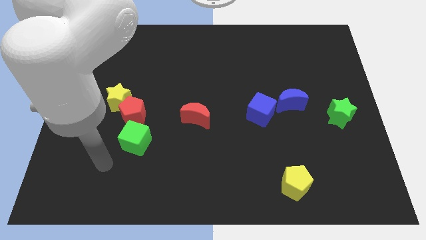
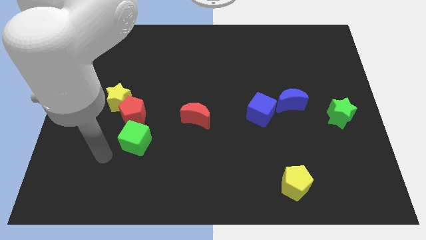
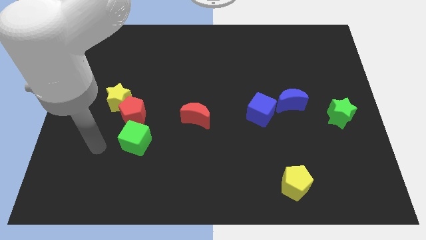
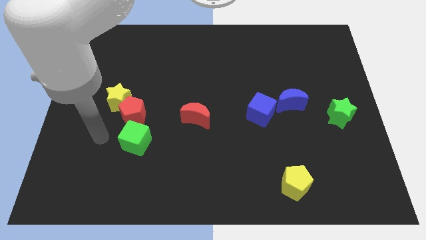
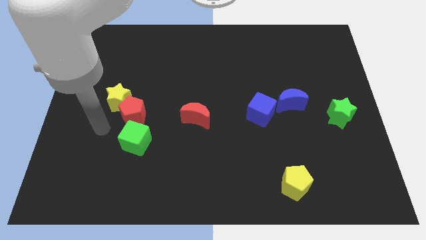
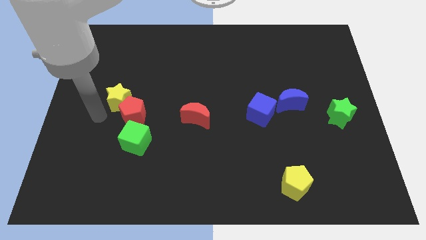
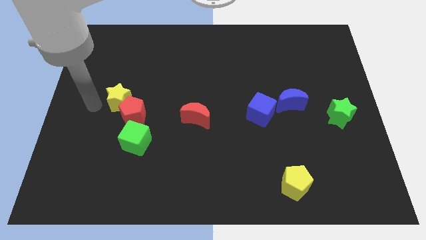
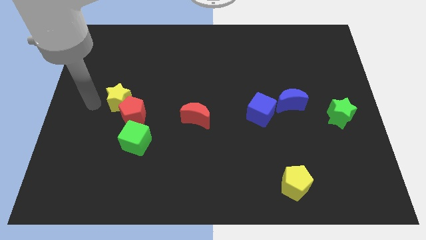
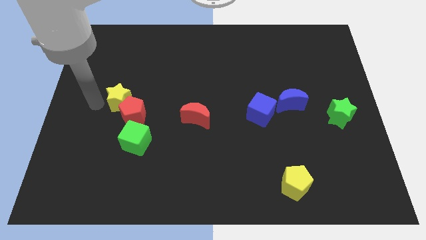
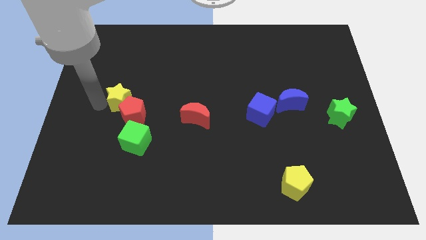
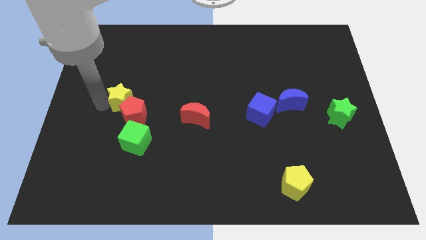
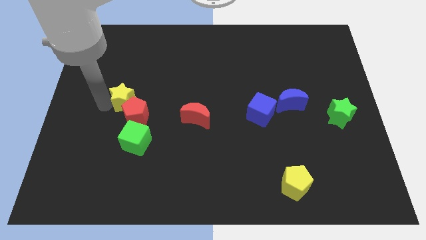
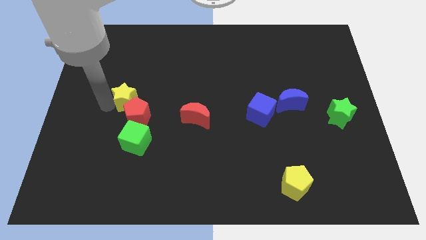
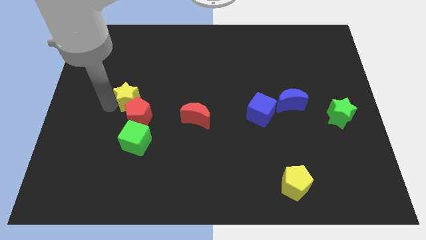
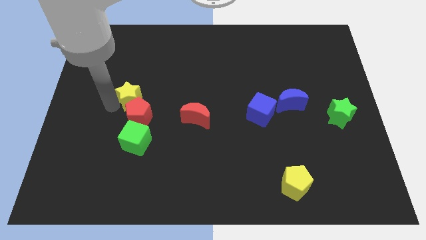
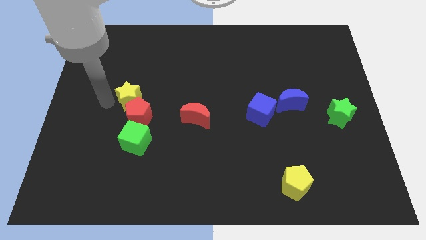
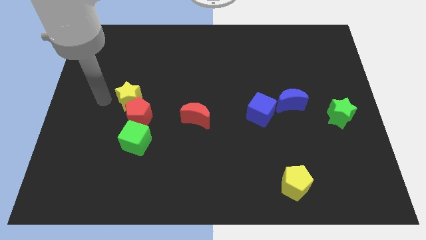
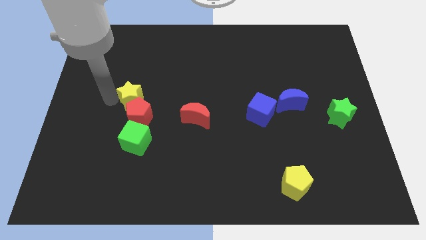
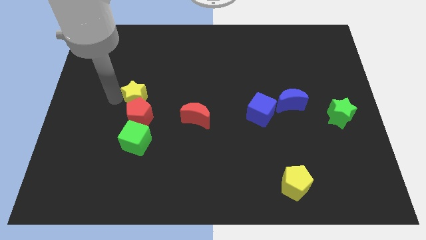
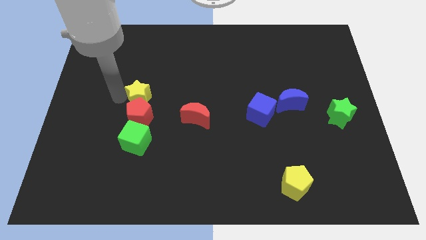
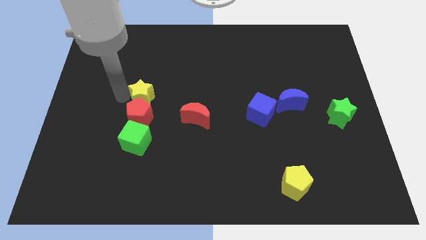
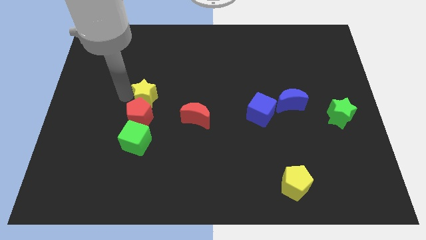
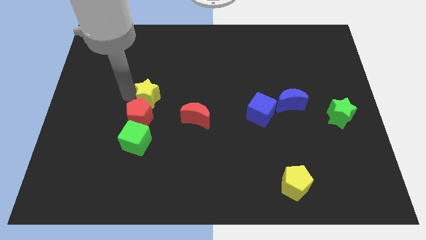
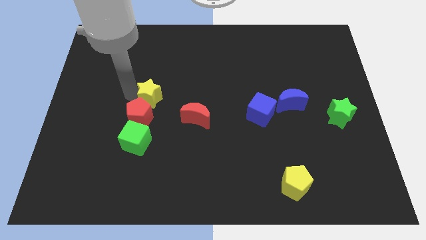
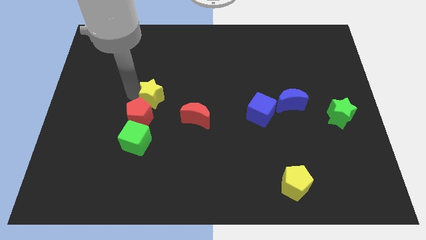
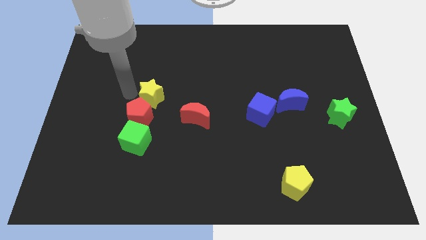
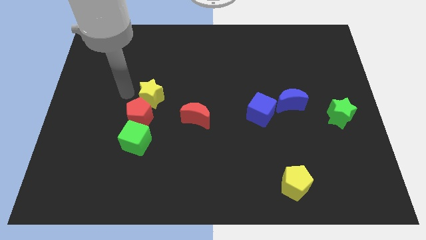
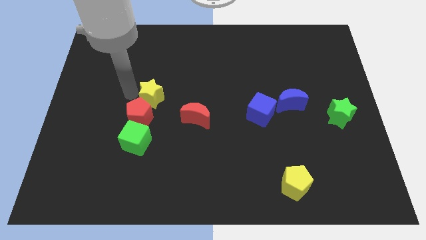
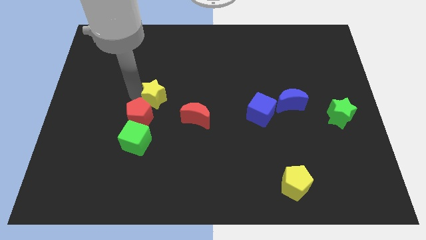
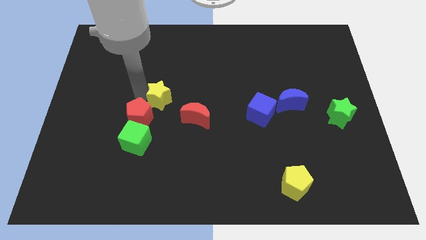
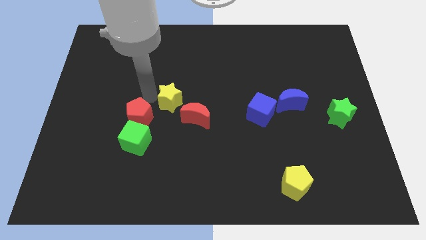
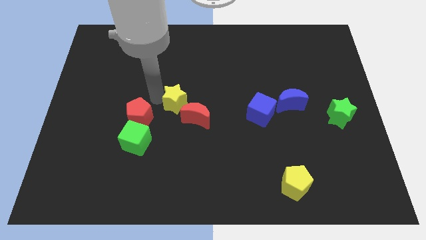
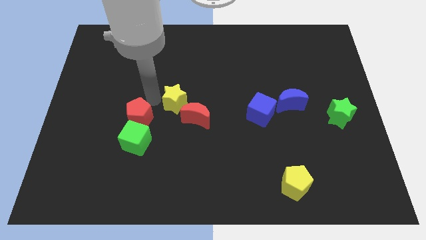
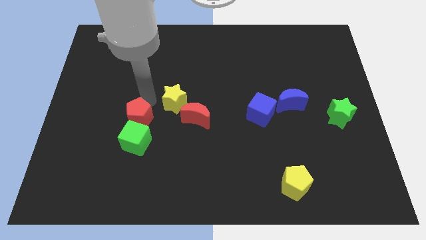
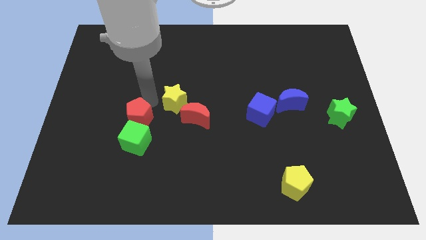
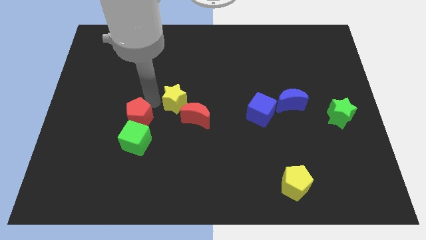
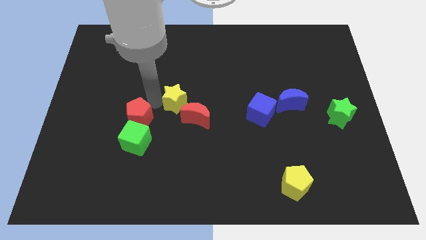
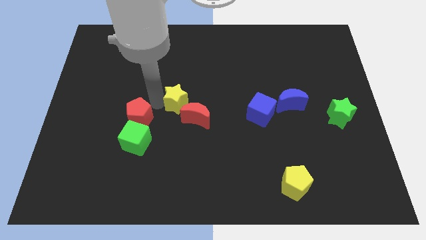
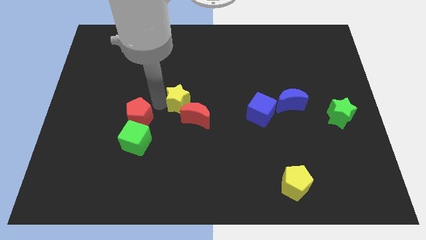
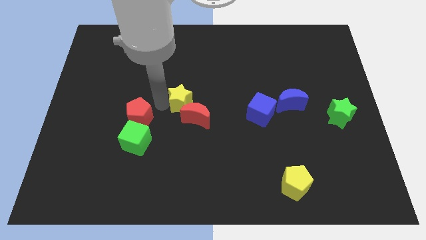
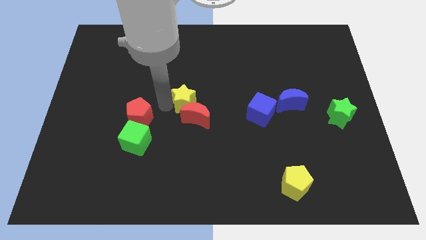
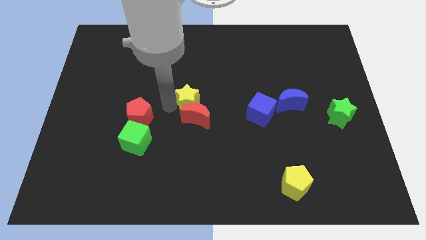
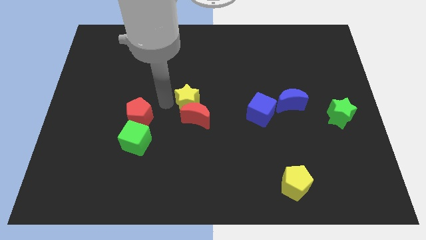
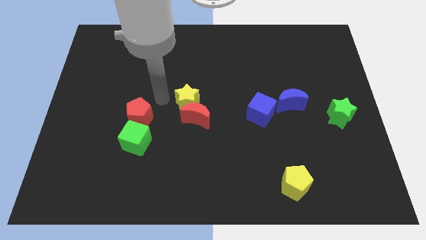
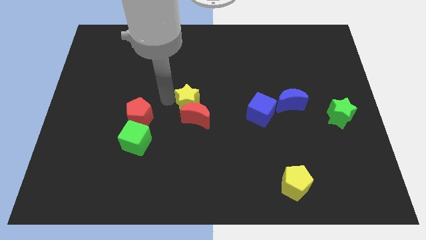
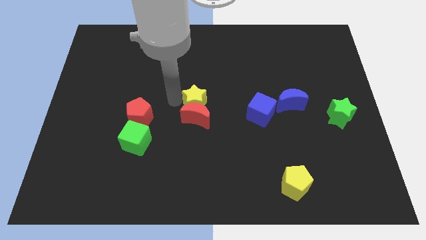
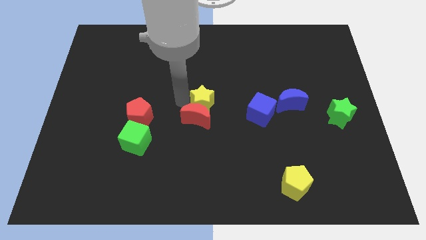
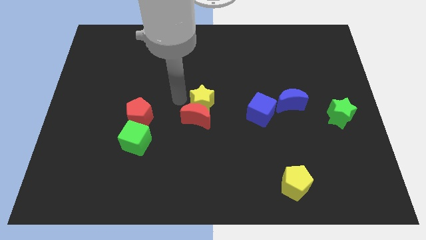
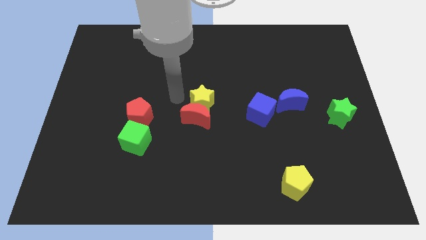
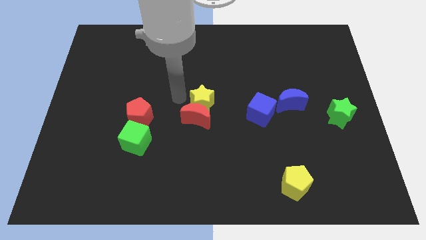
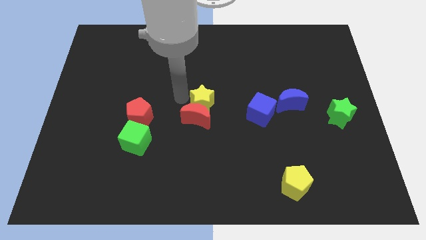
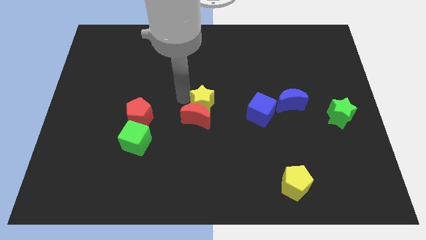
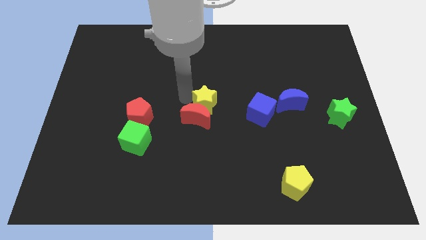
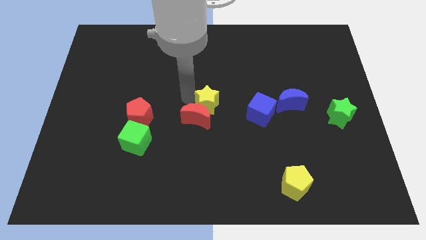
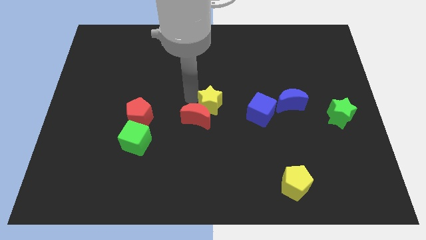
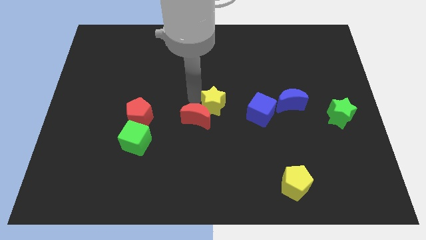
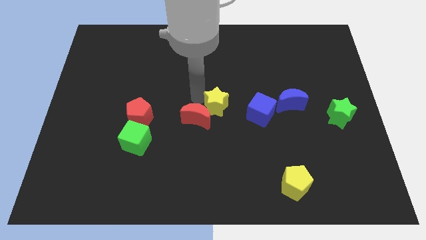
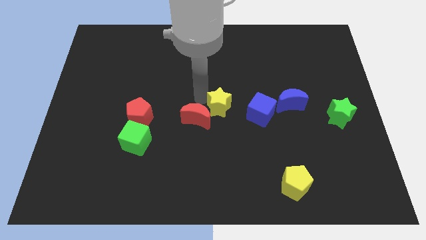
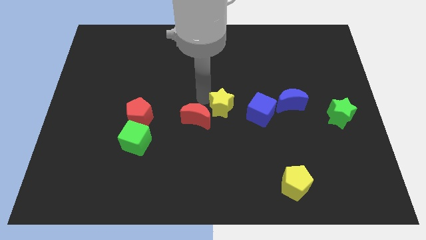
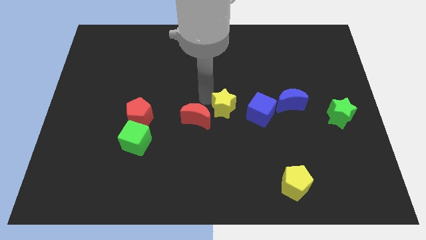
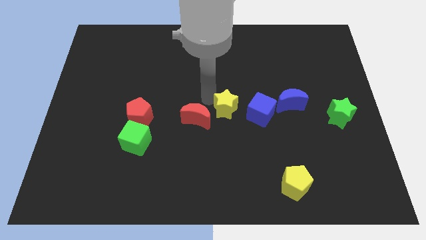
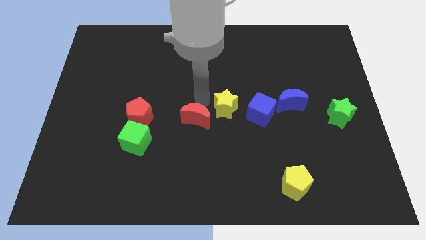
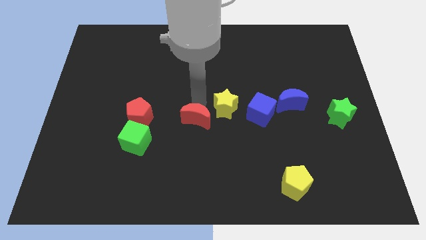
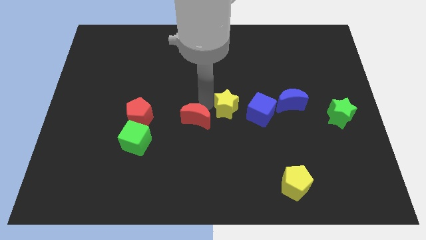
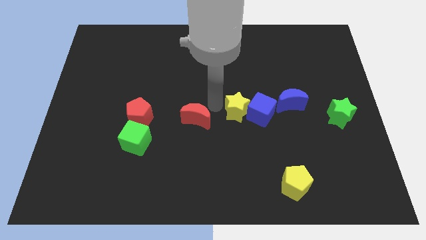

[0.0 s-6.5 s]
move the yellow star to the blue cube

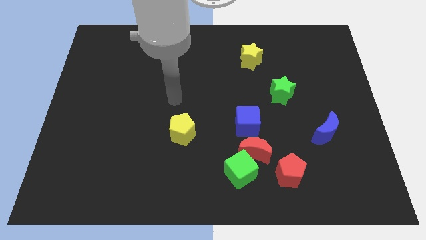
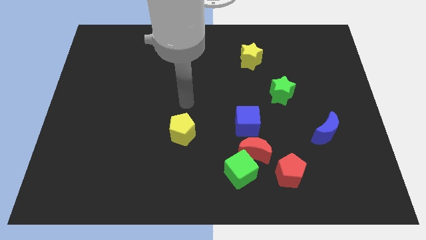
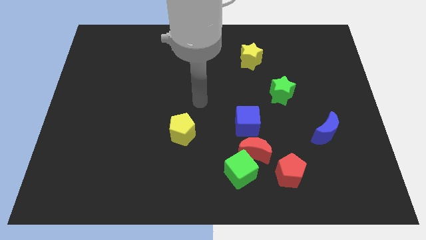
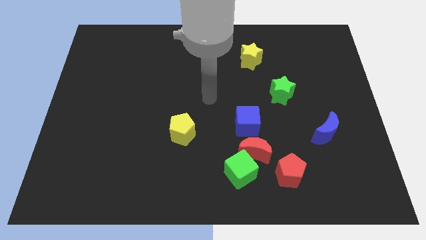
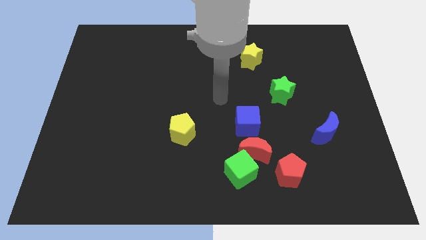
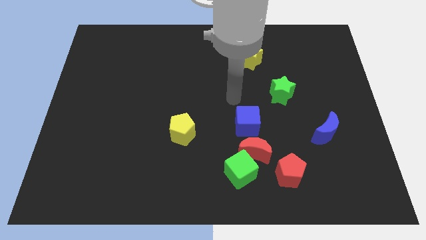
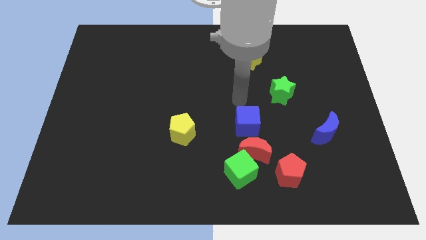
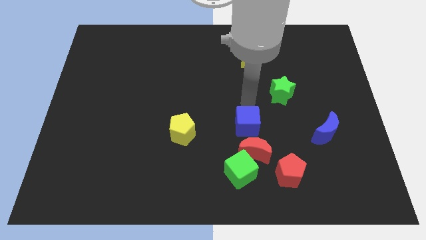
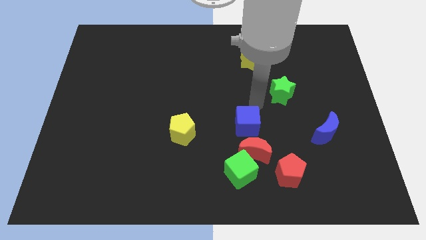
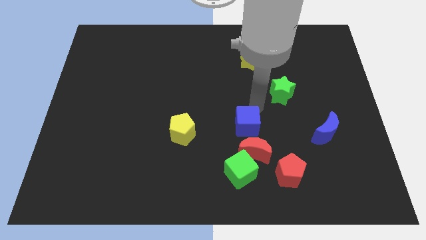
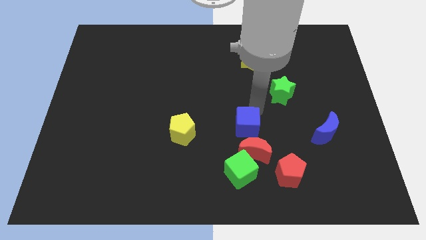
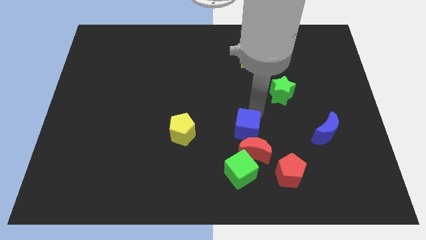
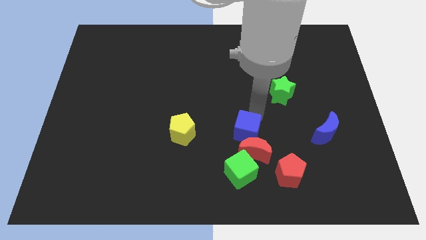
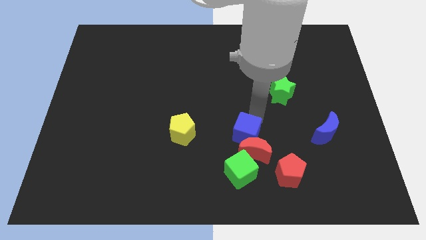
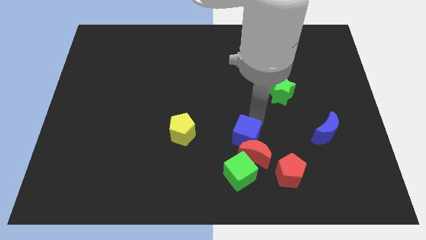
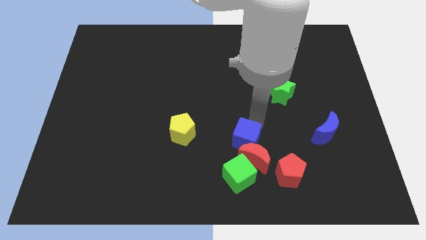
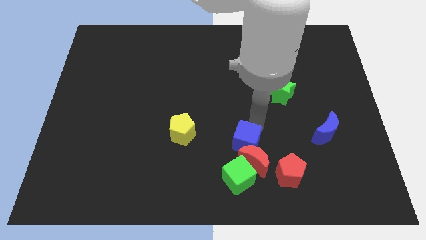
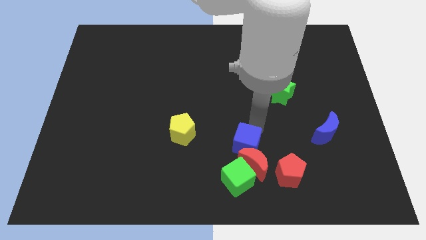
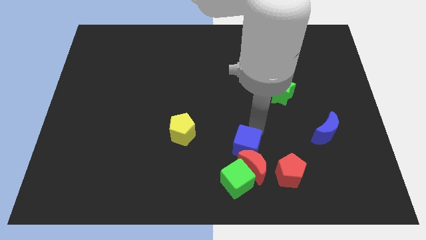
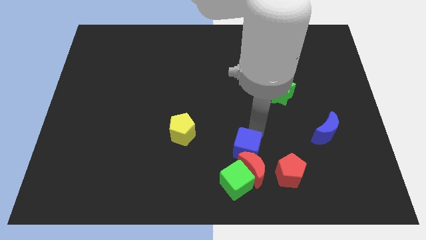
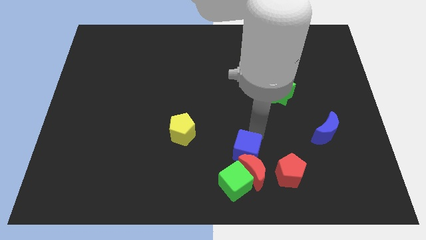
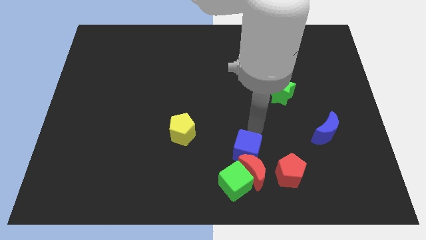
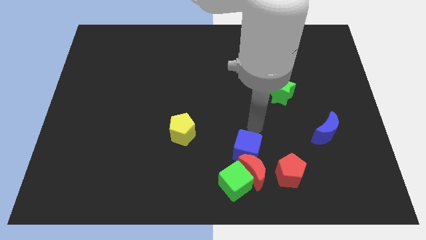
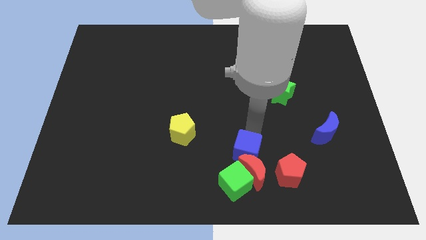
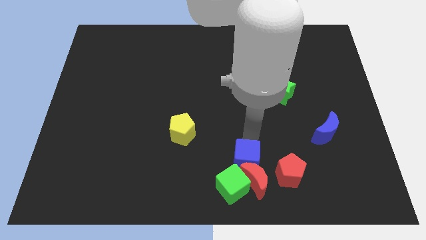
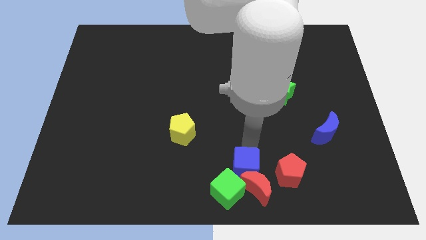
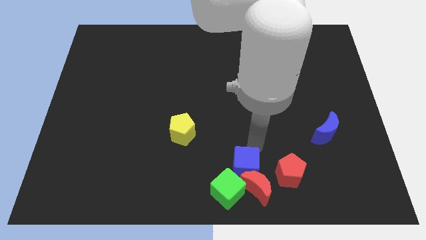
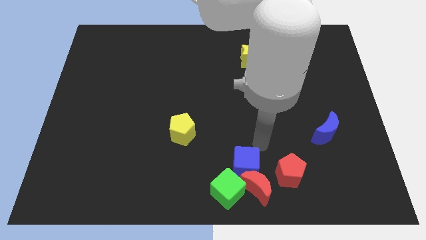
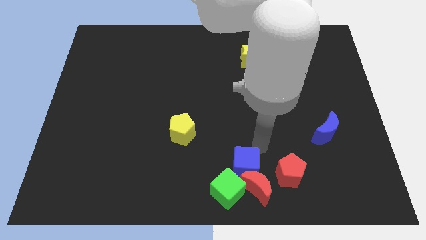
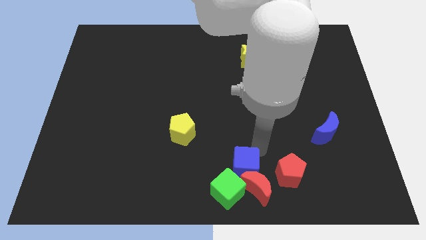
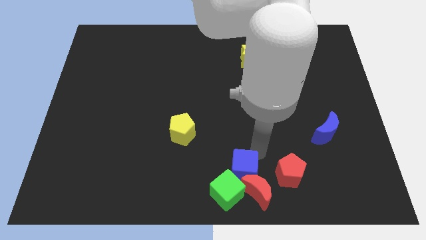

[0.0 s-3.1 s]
put the blue cube next to the green cube
